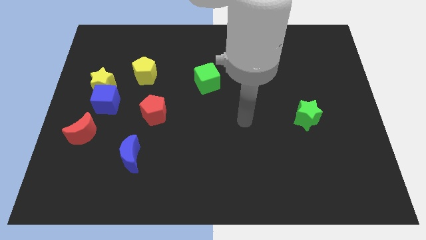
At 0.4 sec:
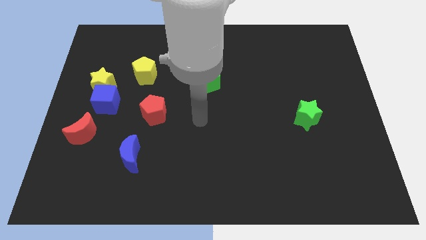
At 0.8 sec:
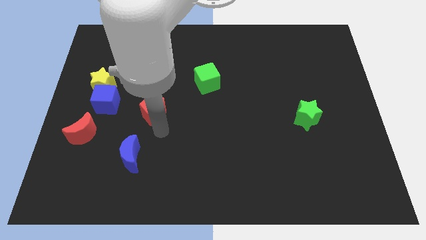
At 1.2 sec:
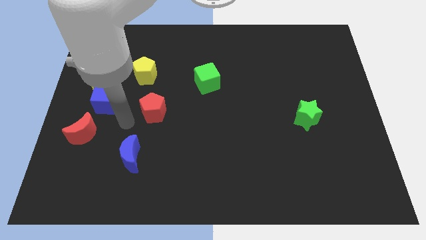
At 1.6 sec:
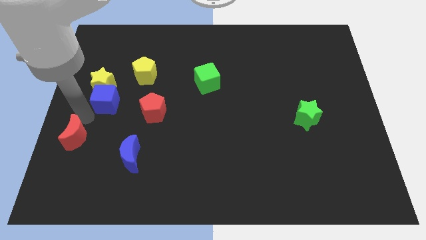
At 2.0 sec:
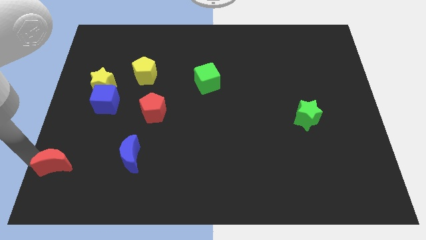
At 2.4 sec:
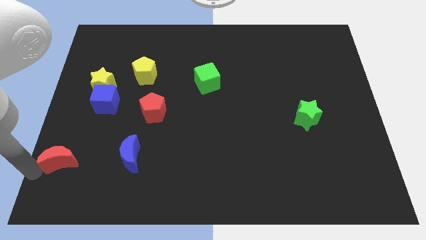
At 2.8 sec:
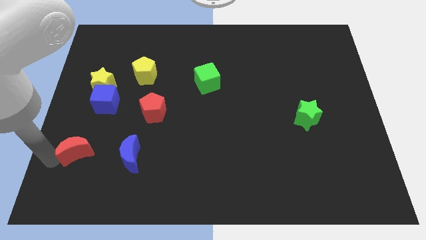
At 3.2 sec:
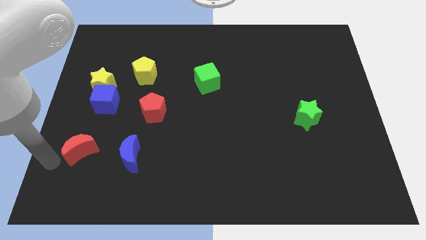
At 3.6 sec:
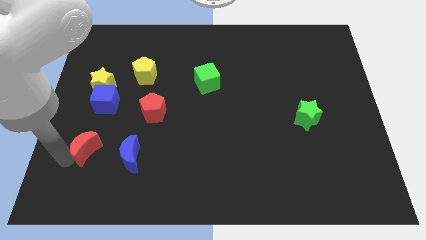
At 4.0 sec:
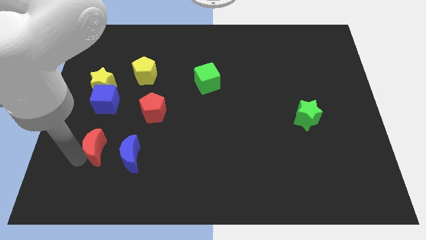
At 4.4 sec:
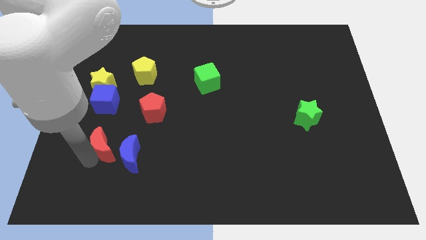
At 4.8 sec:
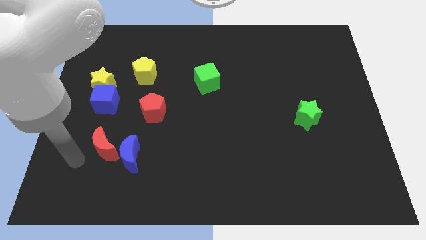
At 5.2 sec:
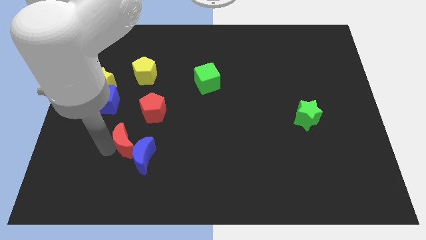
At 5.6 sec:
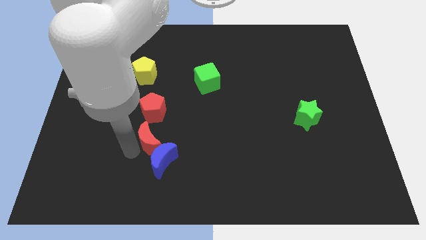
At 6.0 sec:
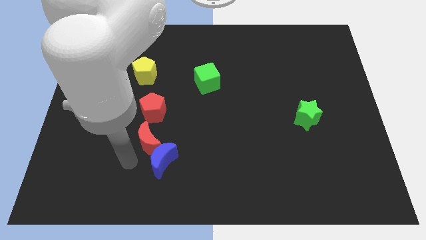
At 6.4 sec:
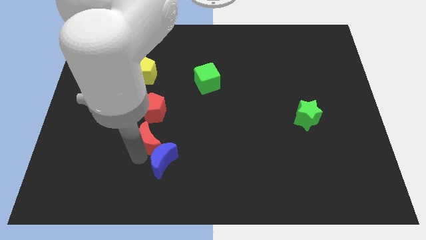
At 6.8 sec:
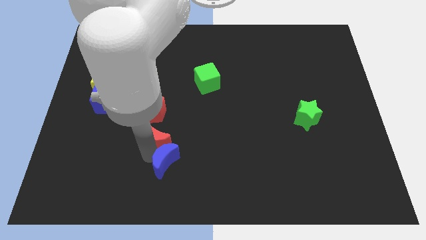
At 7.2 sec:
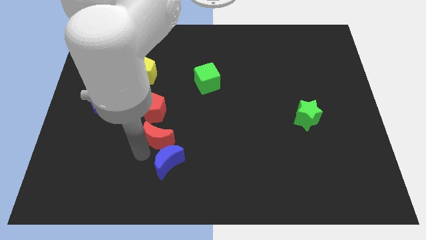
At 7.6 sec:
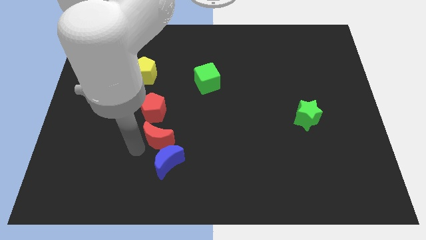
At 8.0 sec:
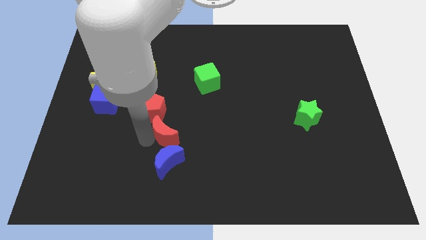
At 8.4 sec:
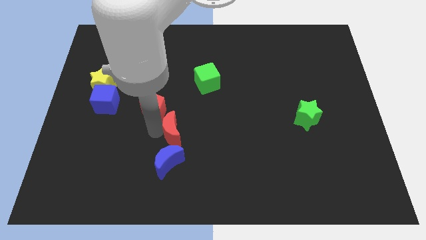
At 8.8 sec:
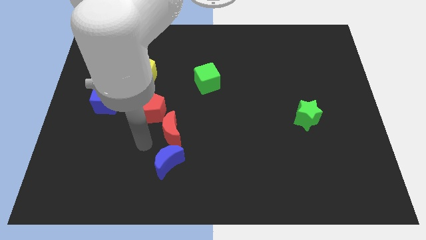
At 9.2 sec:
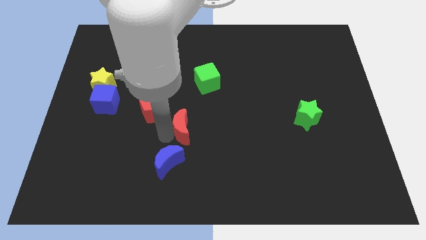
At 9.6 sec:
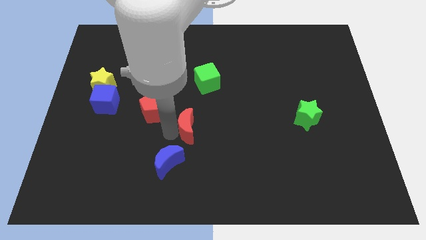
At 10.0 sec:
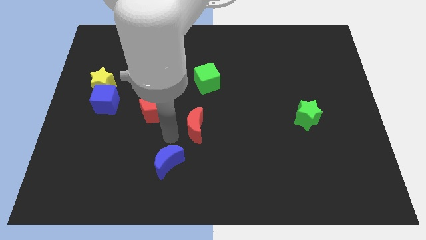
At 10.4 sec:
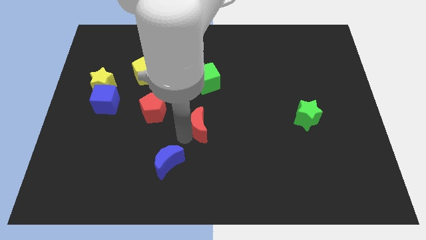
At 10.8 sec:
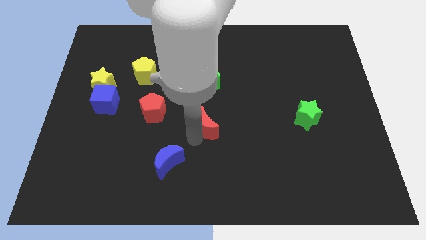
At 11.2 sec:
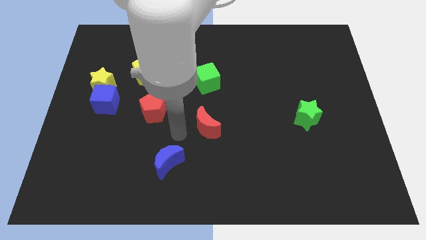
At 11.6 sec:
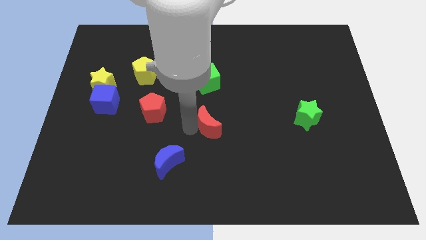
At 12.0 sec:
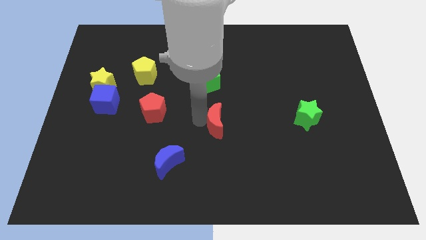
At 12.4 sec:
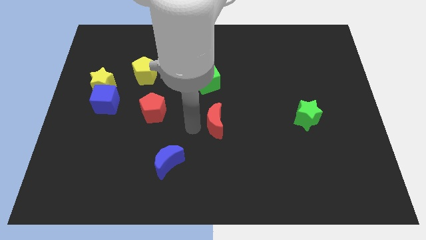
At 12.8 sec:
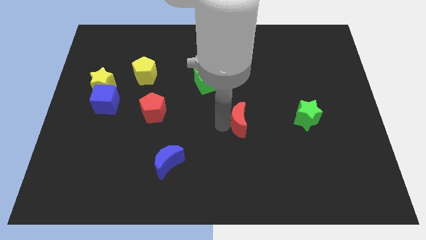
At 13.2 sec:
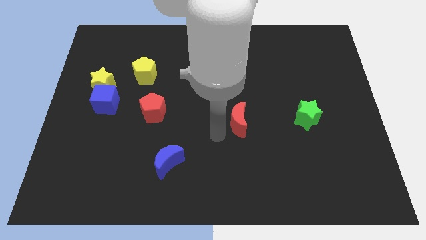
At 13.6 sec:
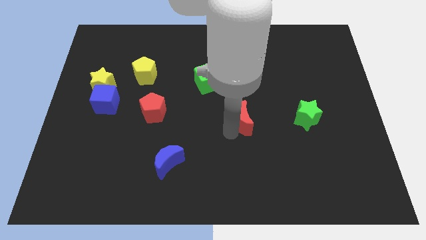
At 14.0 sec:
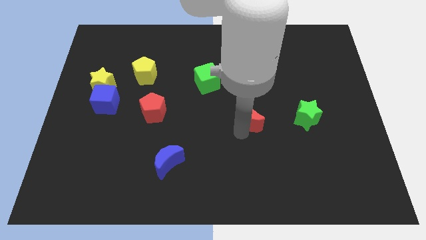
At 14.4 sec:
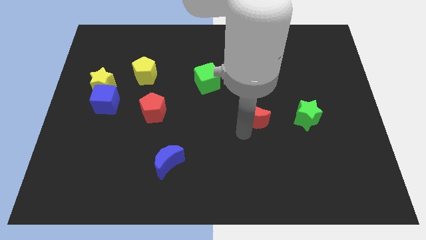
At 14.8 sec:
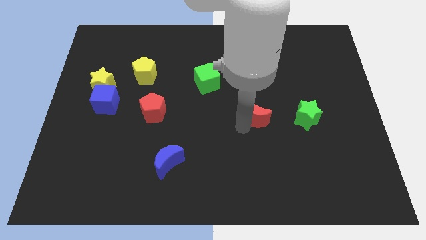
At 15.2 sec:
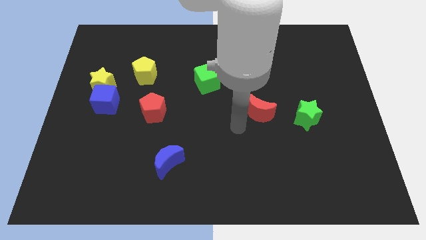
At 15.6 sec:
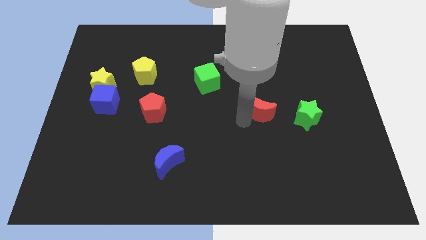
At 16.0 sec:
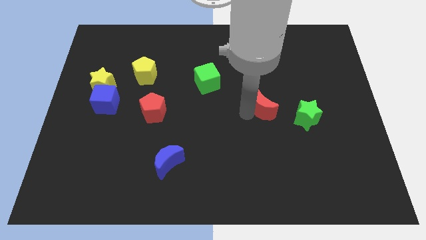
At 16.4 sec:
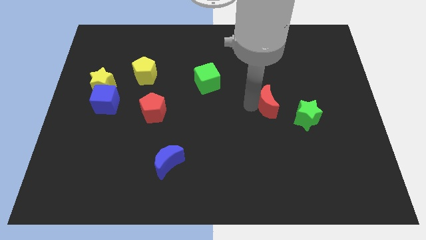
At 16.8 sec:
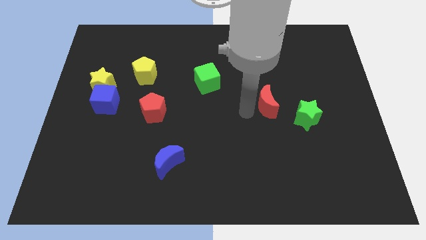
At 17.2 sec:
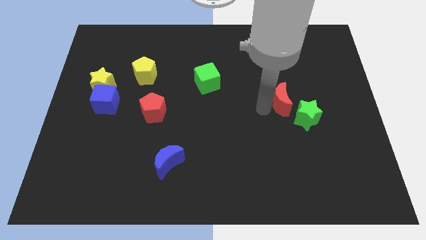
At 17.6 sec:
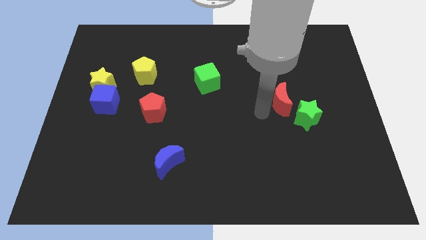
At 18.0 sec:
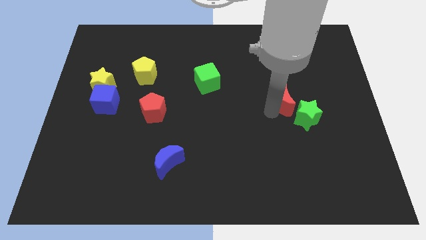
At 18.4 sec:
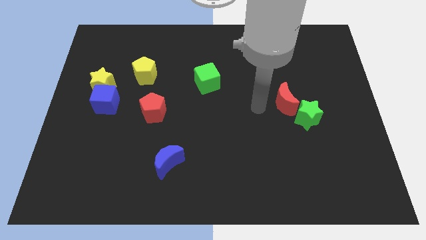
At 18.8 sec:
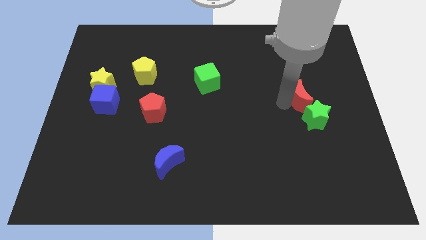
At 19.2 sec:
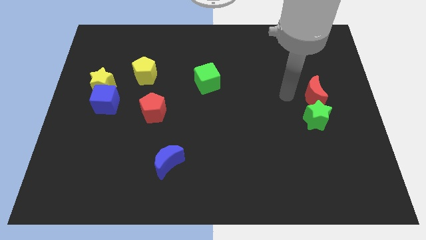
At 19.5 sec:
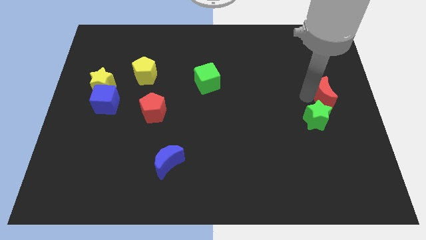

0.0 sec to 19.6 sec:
push the red moon to the center right

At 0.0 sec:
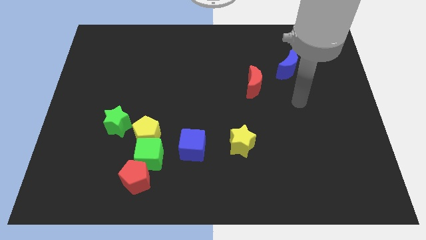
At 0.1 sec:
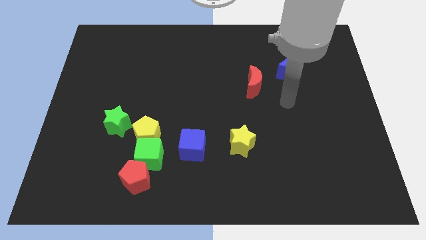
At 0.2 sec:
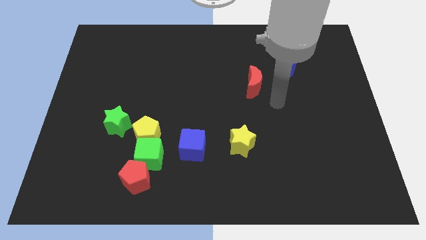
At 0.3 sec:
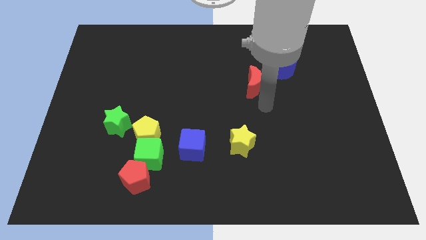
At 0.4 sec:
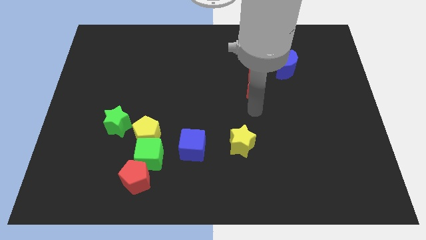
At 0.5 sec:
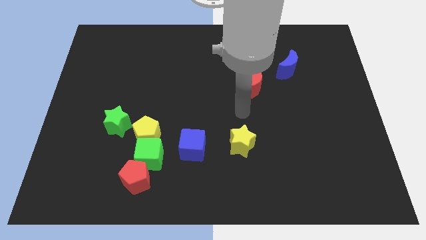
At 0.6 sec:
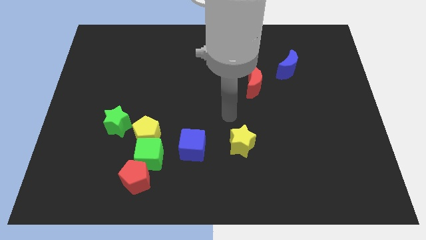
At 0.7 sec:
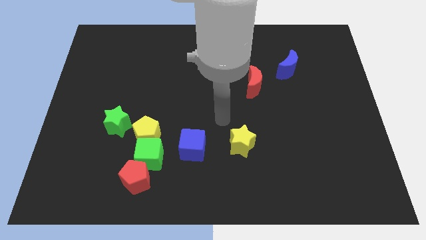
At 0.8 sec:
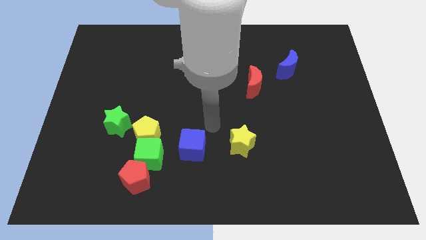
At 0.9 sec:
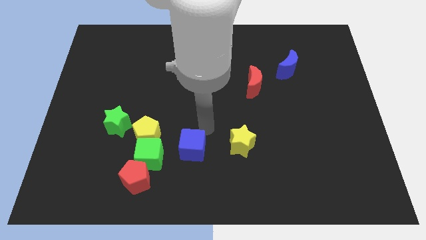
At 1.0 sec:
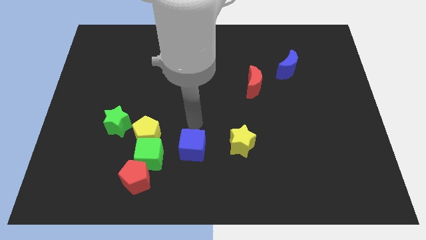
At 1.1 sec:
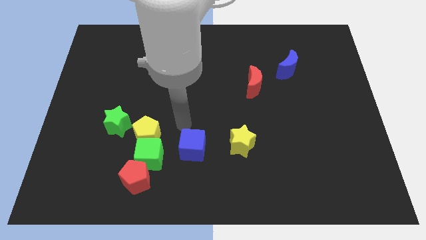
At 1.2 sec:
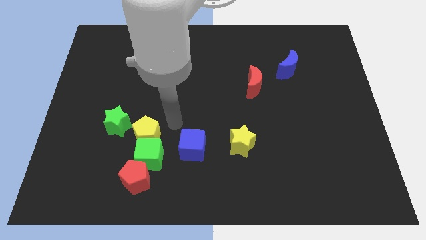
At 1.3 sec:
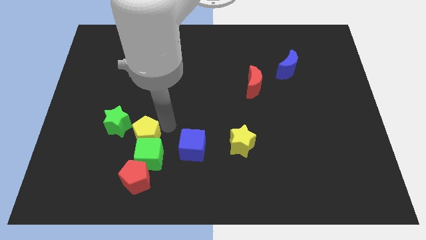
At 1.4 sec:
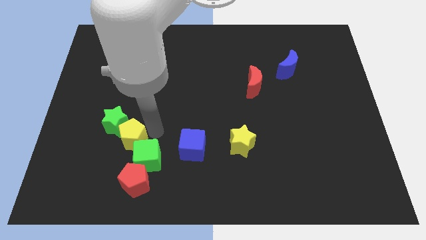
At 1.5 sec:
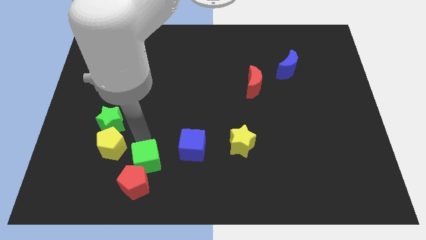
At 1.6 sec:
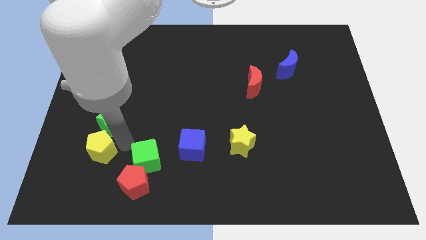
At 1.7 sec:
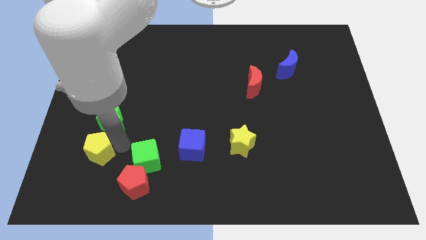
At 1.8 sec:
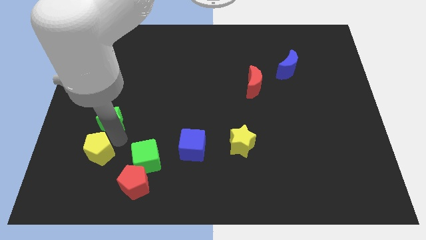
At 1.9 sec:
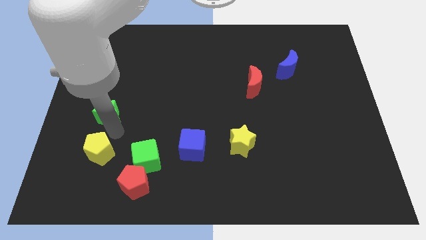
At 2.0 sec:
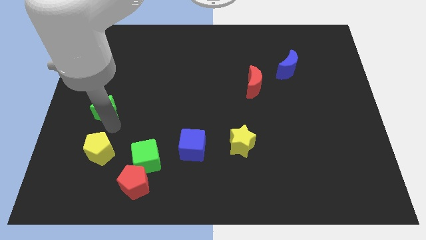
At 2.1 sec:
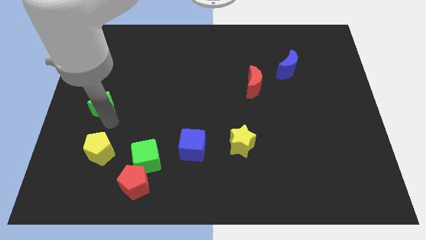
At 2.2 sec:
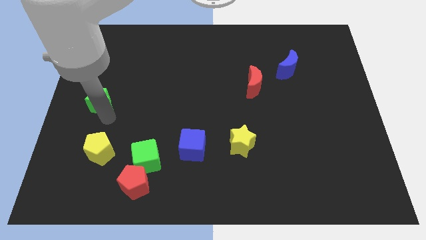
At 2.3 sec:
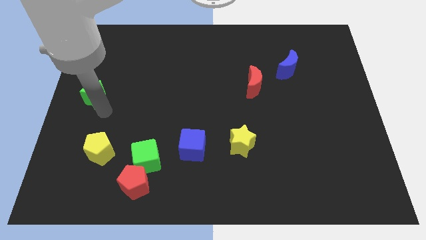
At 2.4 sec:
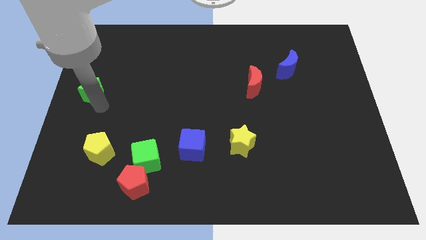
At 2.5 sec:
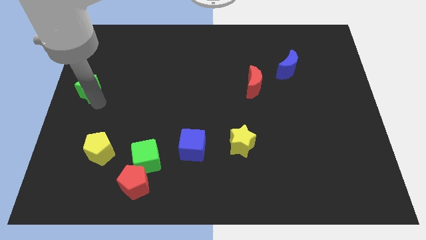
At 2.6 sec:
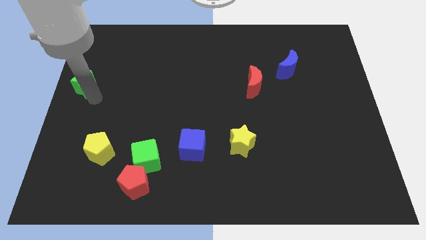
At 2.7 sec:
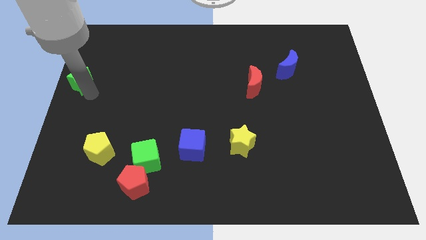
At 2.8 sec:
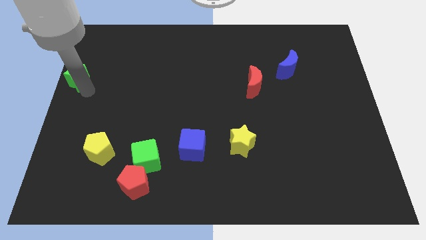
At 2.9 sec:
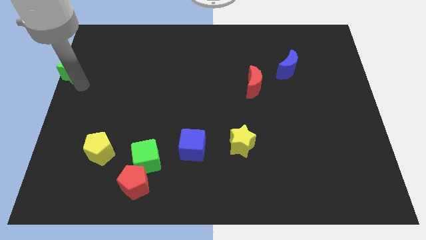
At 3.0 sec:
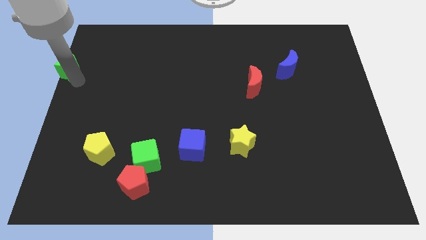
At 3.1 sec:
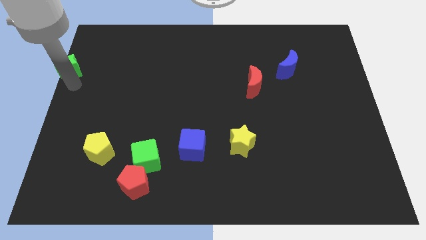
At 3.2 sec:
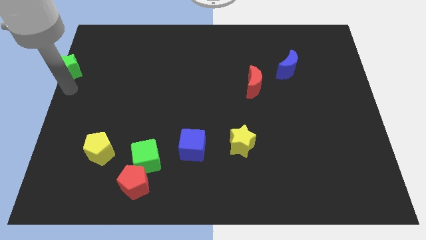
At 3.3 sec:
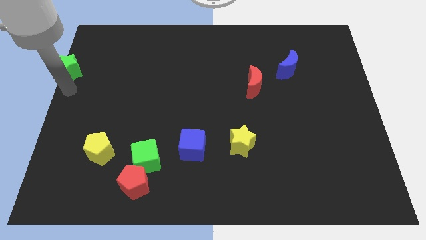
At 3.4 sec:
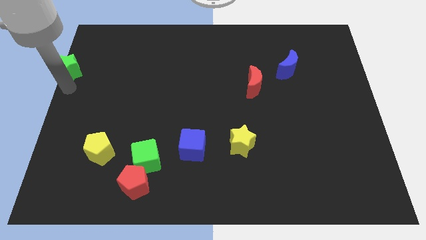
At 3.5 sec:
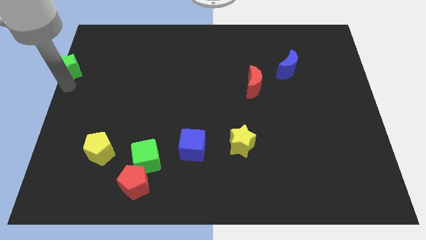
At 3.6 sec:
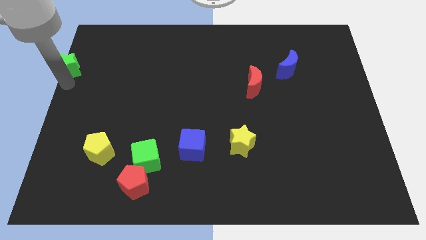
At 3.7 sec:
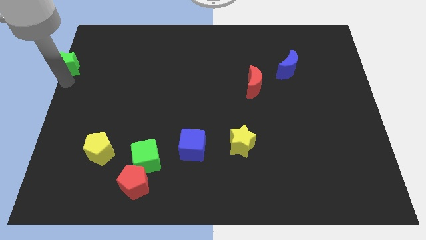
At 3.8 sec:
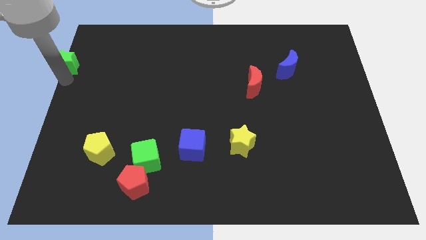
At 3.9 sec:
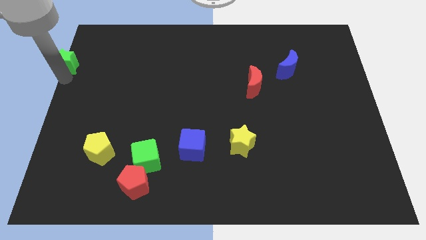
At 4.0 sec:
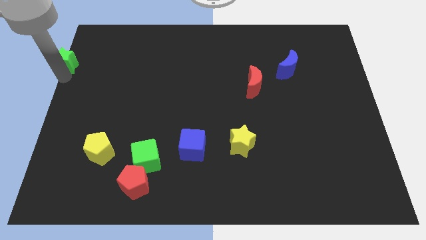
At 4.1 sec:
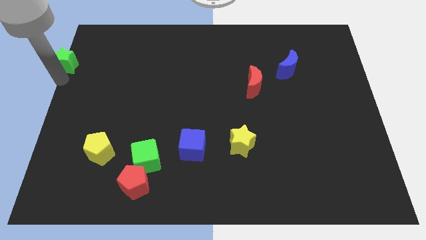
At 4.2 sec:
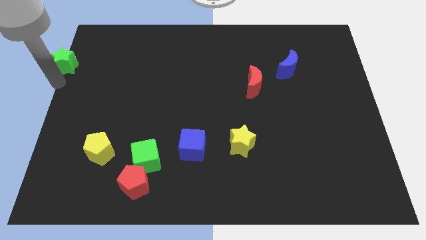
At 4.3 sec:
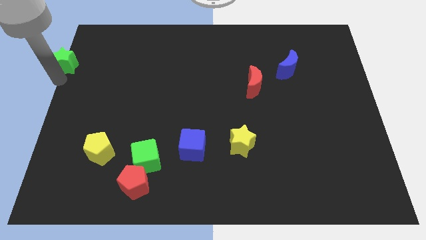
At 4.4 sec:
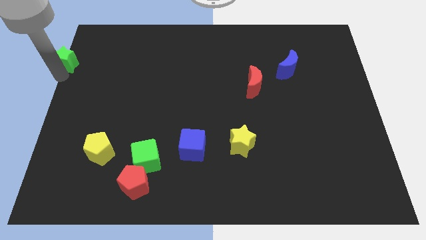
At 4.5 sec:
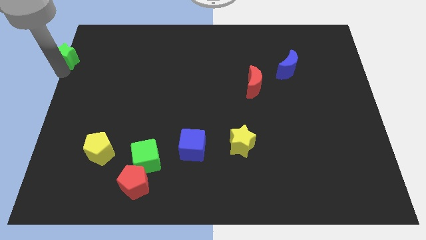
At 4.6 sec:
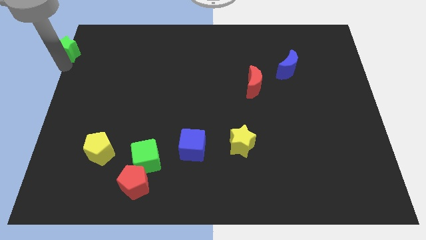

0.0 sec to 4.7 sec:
slide the green star to the upper left corner
